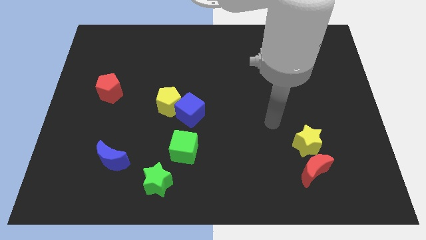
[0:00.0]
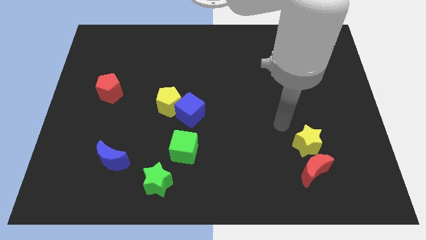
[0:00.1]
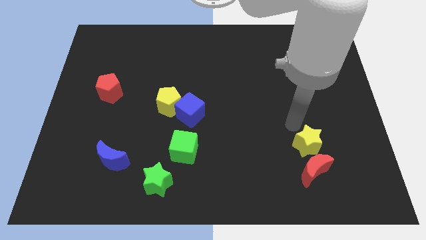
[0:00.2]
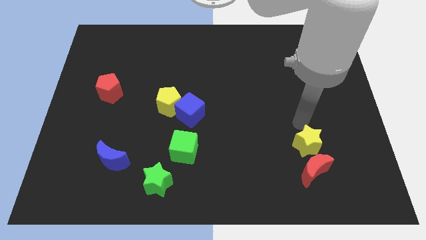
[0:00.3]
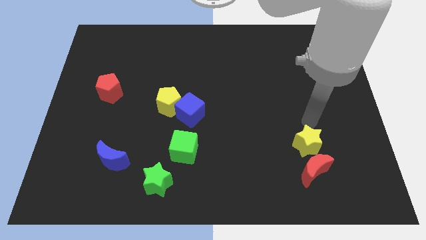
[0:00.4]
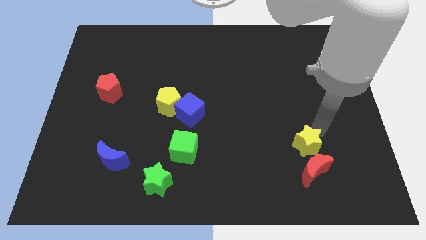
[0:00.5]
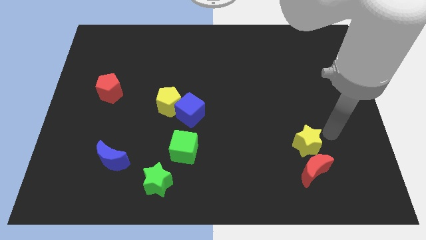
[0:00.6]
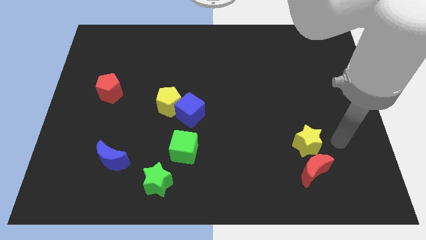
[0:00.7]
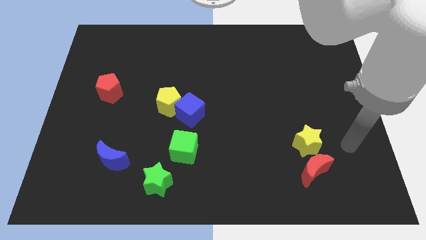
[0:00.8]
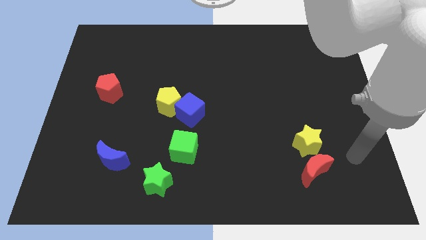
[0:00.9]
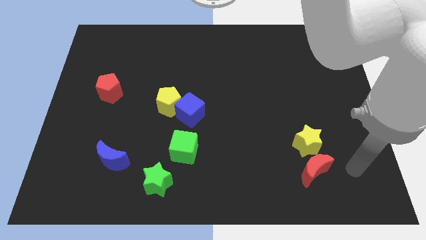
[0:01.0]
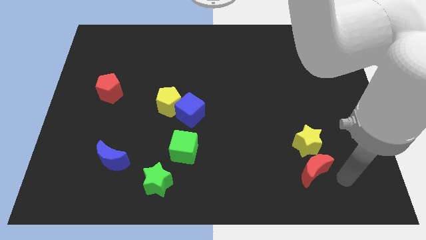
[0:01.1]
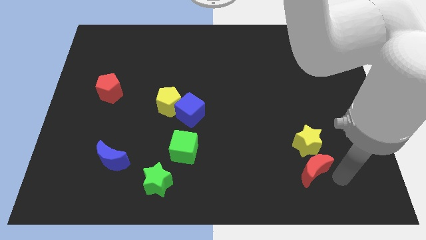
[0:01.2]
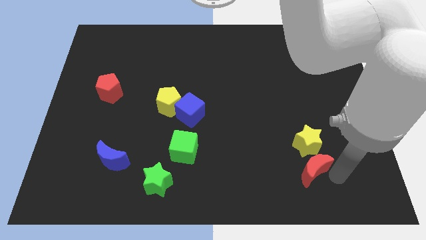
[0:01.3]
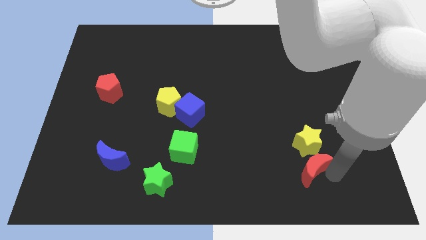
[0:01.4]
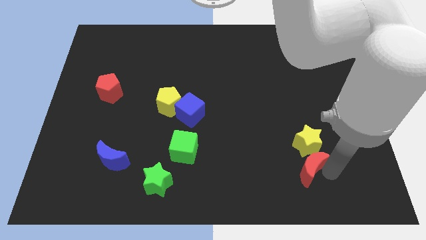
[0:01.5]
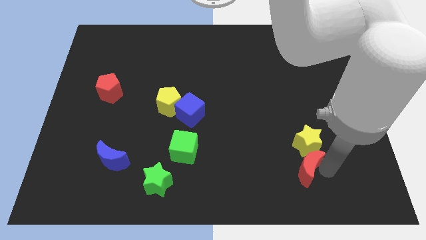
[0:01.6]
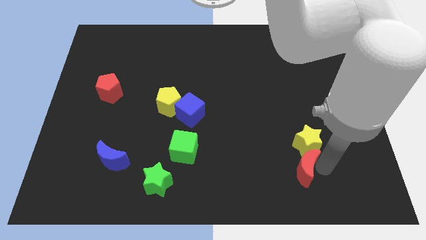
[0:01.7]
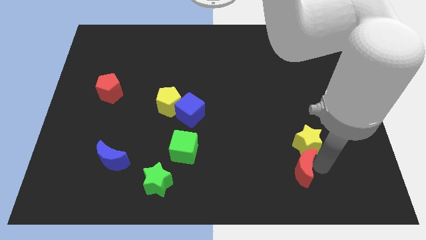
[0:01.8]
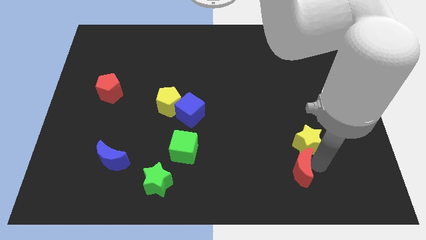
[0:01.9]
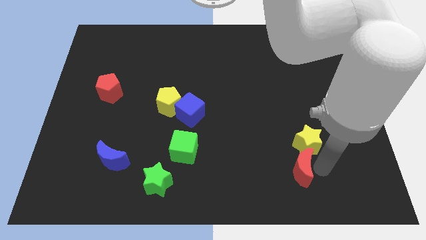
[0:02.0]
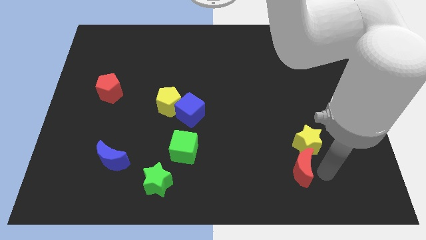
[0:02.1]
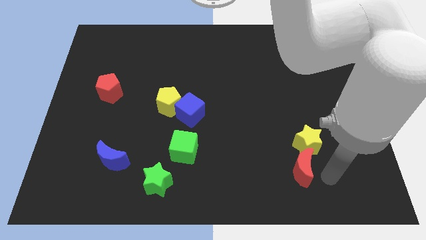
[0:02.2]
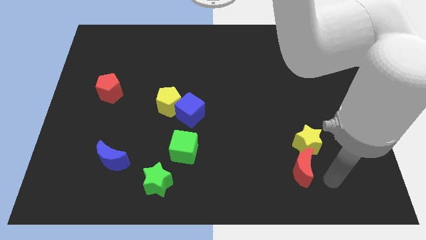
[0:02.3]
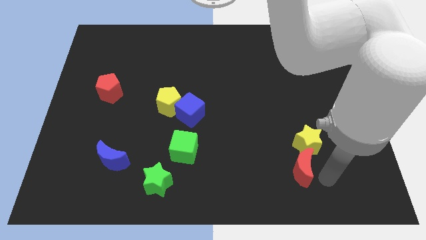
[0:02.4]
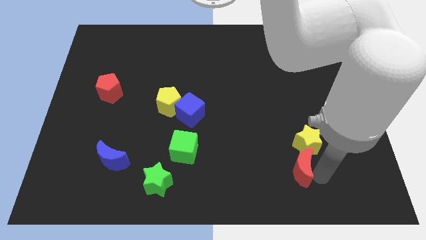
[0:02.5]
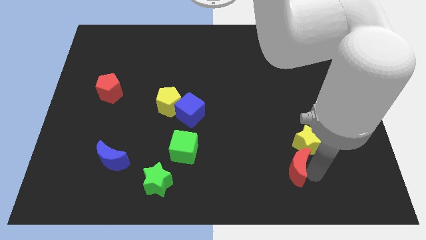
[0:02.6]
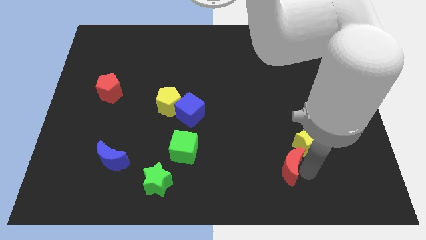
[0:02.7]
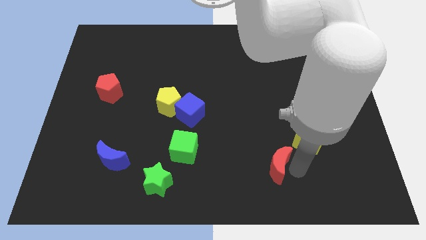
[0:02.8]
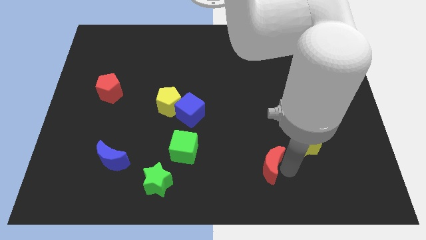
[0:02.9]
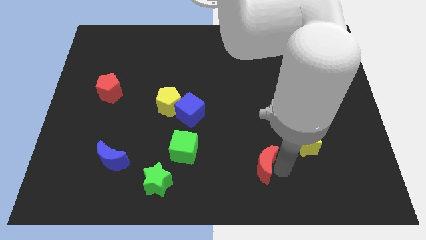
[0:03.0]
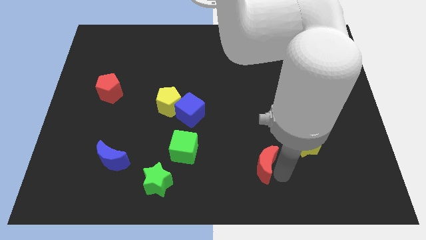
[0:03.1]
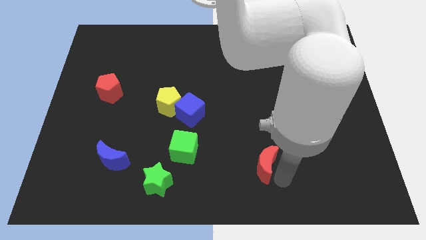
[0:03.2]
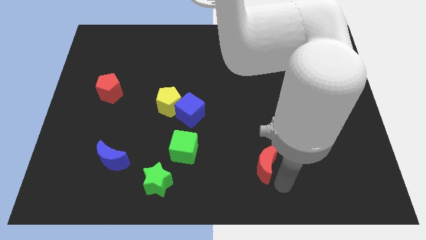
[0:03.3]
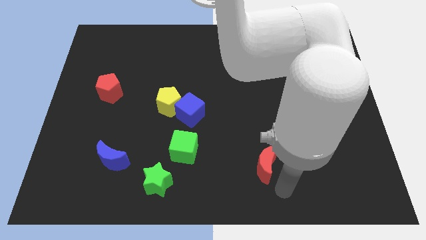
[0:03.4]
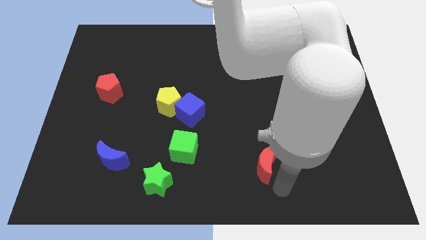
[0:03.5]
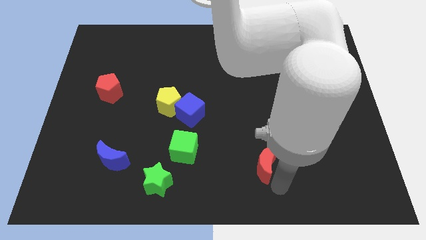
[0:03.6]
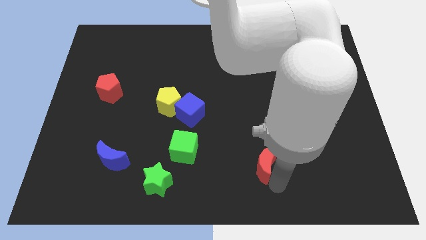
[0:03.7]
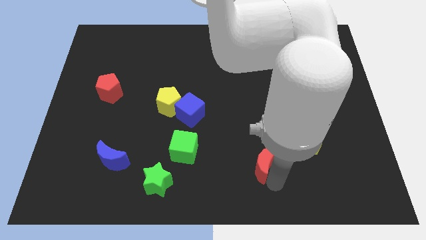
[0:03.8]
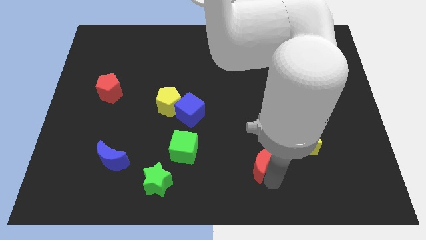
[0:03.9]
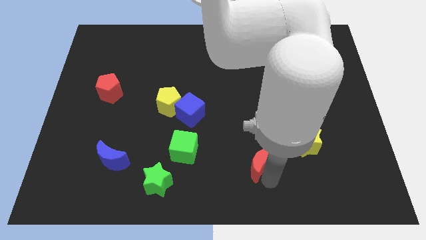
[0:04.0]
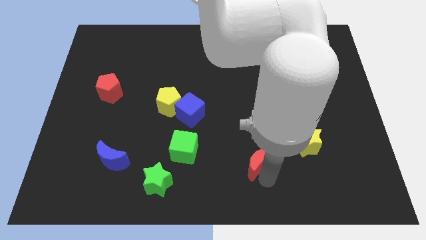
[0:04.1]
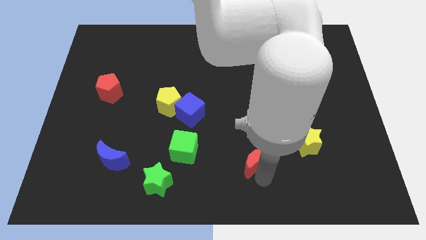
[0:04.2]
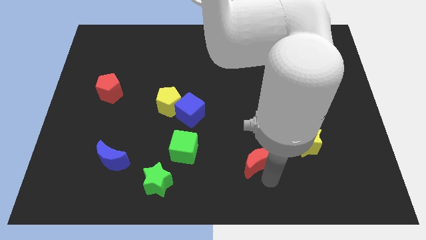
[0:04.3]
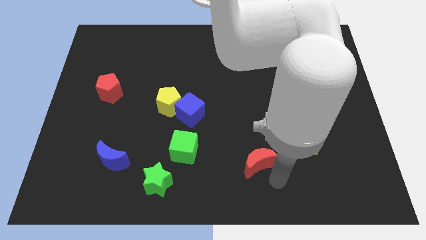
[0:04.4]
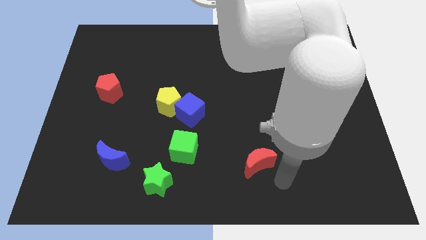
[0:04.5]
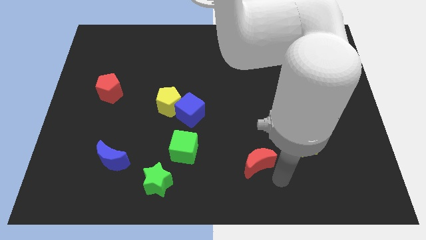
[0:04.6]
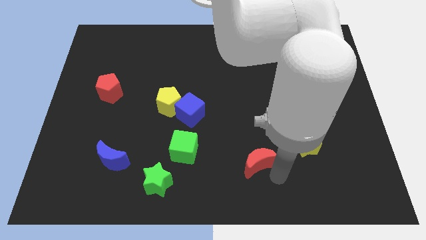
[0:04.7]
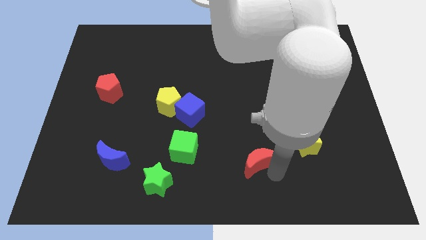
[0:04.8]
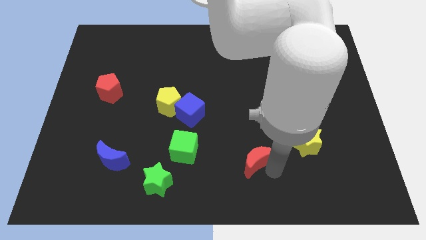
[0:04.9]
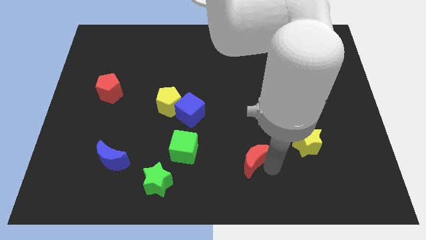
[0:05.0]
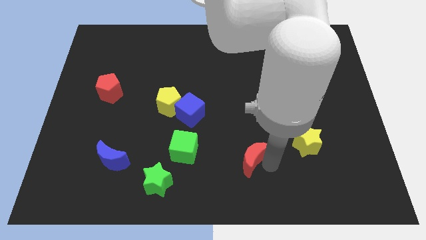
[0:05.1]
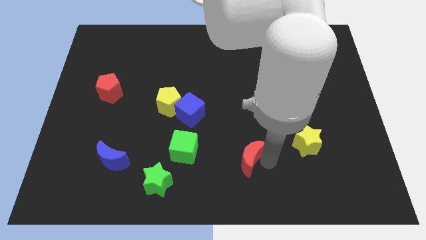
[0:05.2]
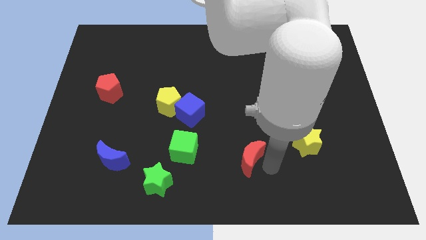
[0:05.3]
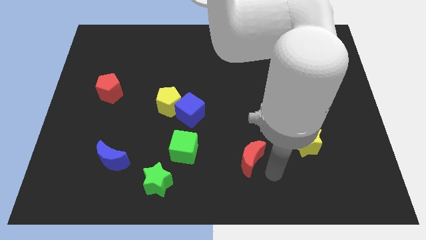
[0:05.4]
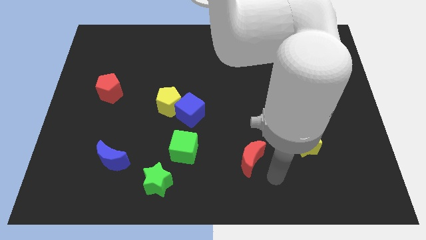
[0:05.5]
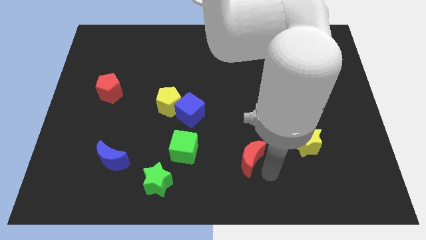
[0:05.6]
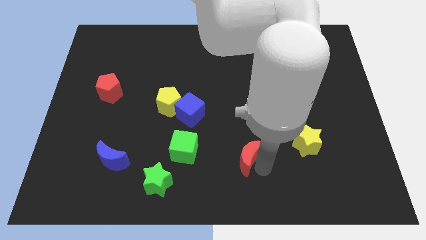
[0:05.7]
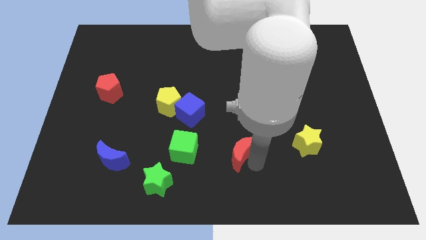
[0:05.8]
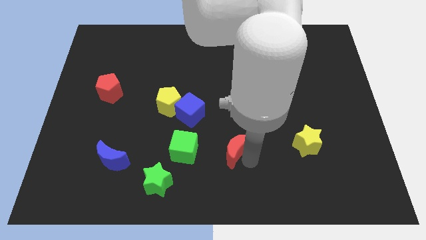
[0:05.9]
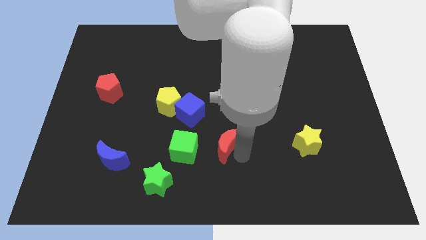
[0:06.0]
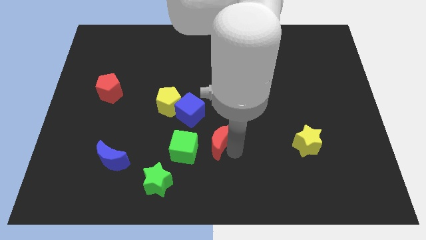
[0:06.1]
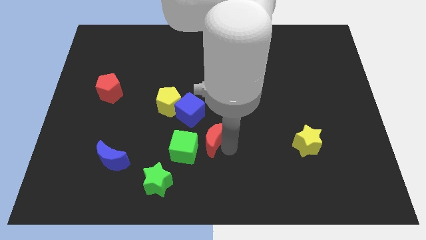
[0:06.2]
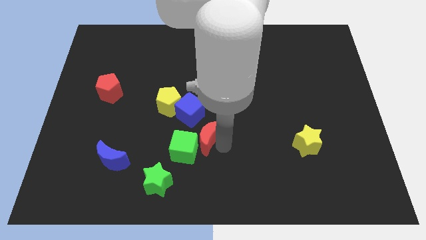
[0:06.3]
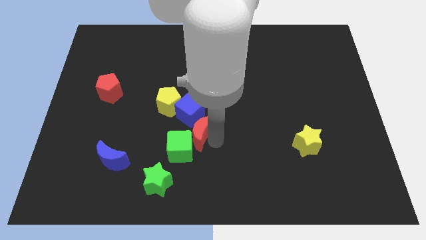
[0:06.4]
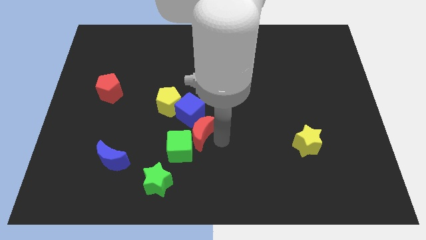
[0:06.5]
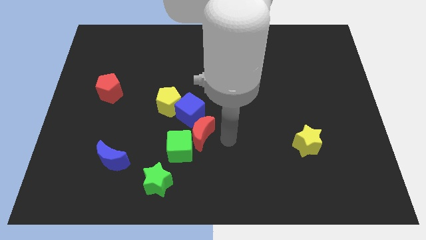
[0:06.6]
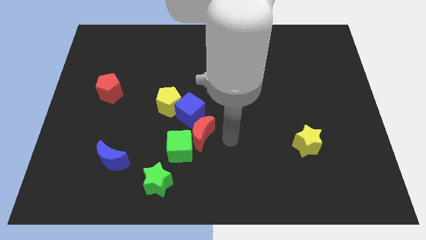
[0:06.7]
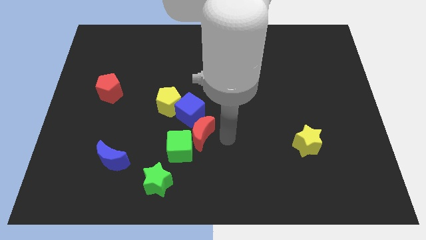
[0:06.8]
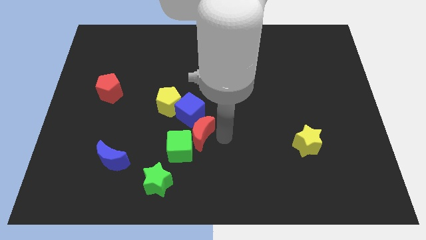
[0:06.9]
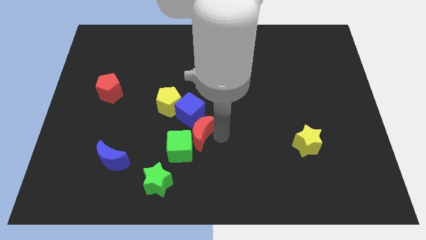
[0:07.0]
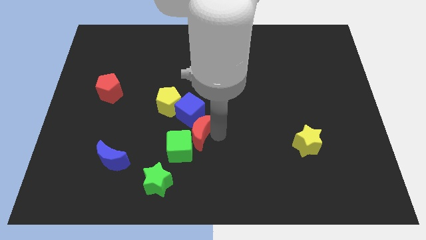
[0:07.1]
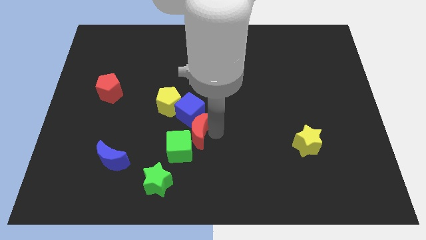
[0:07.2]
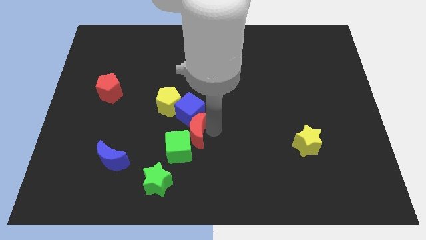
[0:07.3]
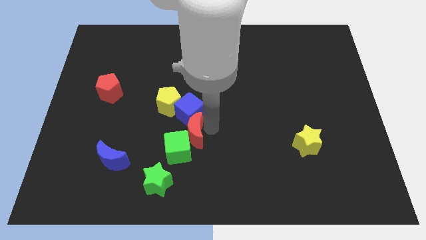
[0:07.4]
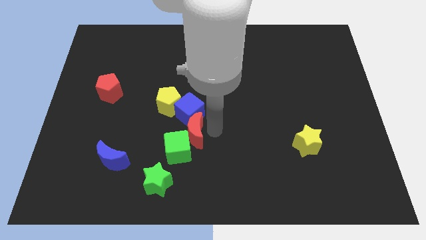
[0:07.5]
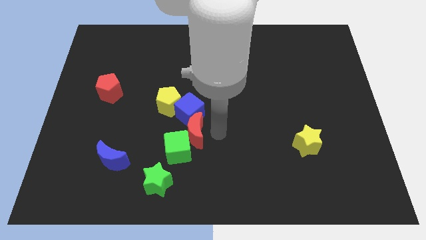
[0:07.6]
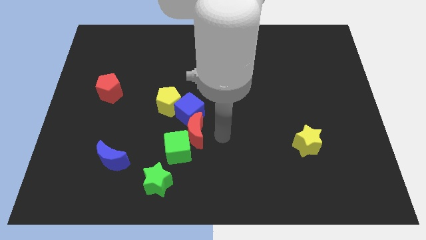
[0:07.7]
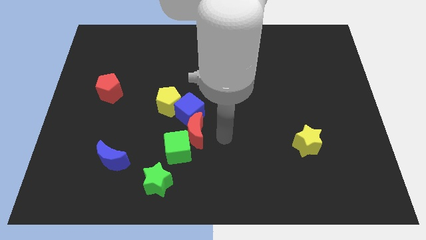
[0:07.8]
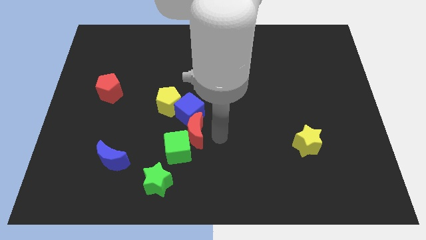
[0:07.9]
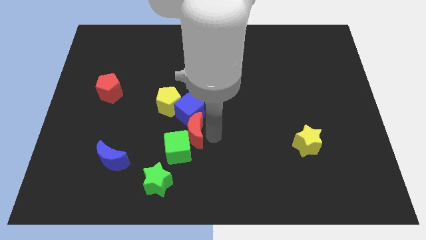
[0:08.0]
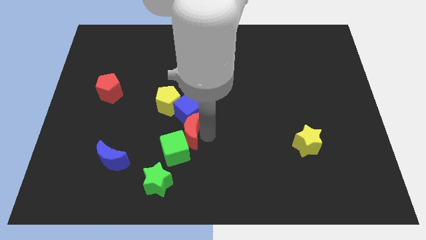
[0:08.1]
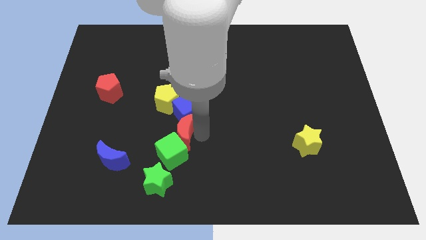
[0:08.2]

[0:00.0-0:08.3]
slide the red moon below the yellow pentagon
